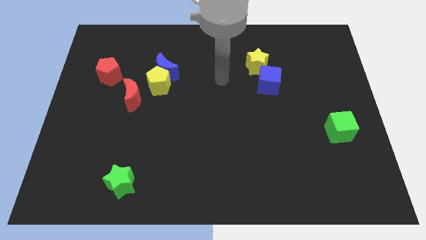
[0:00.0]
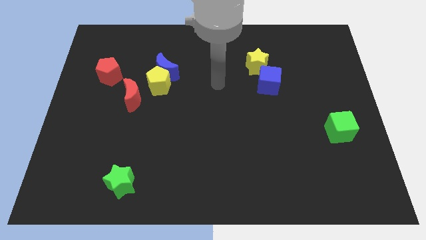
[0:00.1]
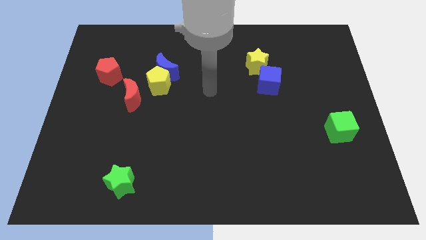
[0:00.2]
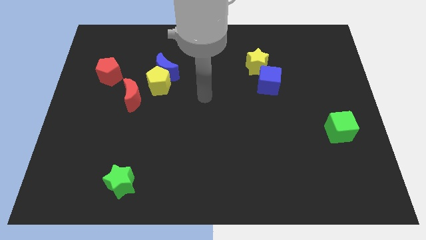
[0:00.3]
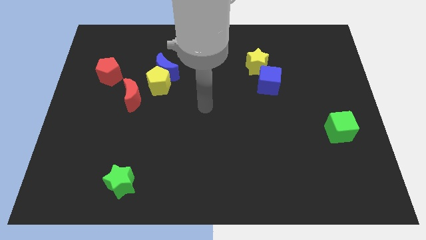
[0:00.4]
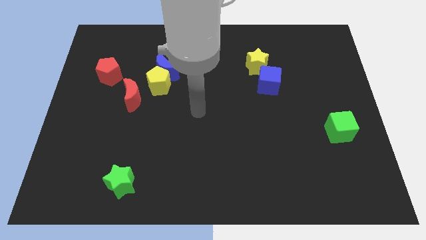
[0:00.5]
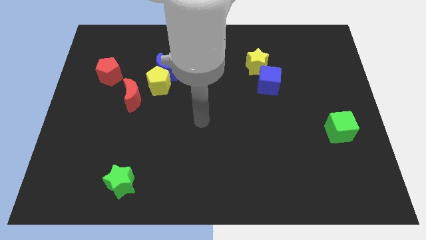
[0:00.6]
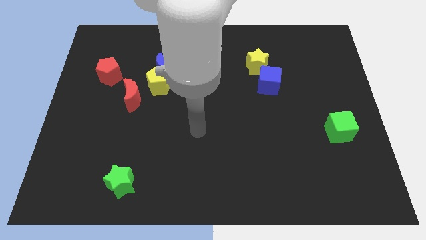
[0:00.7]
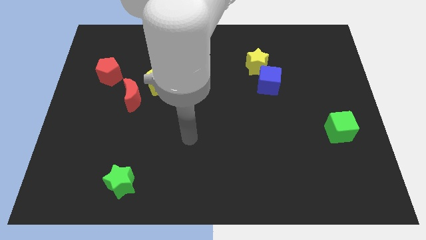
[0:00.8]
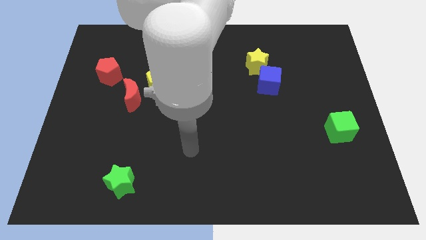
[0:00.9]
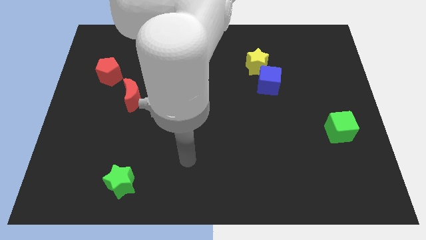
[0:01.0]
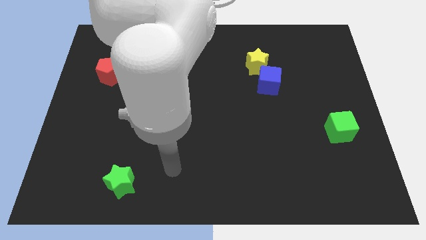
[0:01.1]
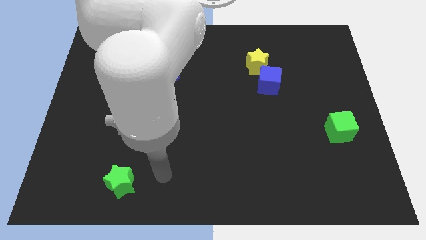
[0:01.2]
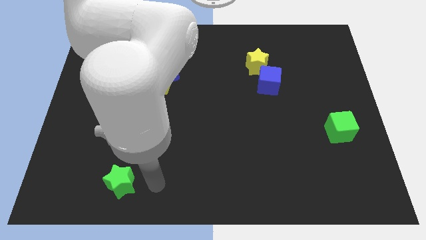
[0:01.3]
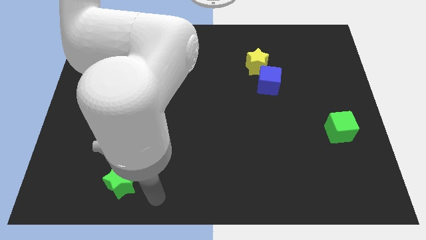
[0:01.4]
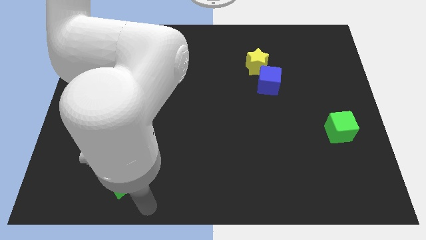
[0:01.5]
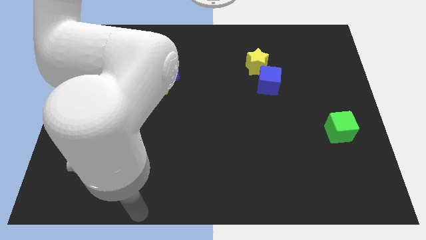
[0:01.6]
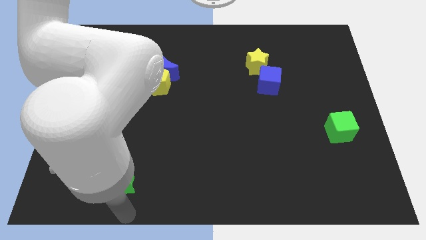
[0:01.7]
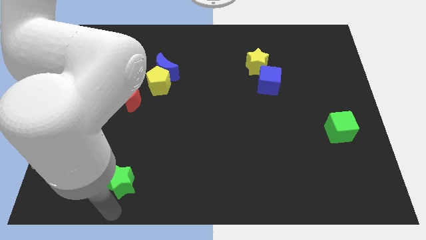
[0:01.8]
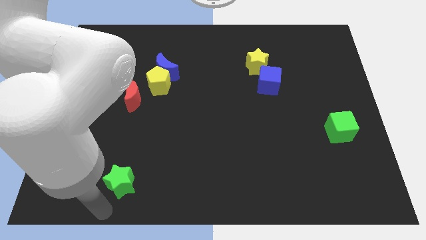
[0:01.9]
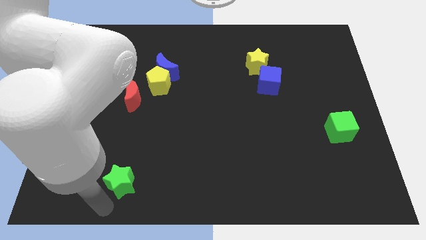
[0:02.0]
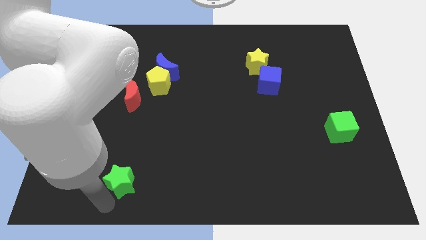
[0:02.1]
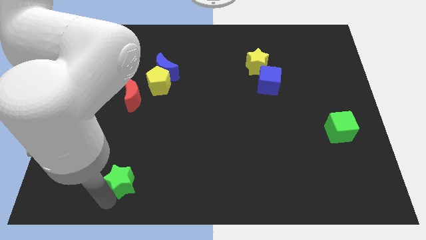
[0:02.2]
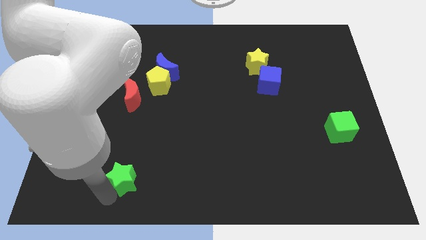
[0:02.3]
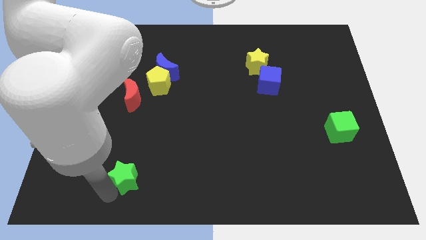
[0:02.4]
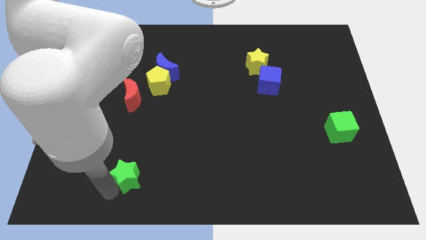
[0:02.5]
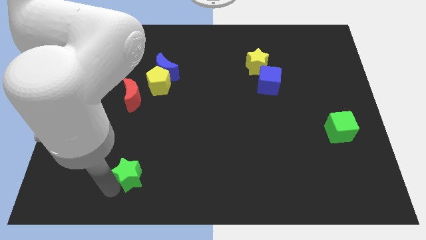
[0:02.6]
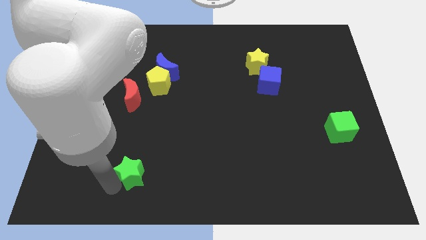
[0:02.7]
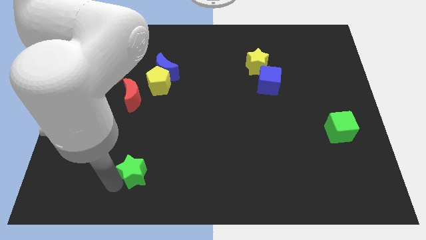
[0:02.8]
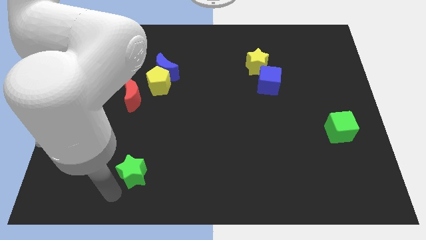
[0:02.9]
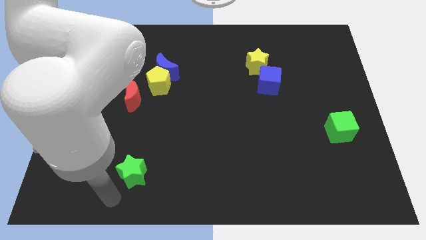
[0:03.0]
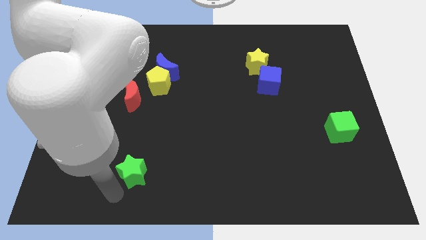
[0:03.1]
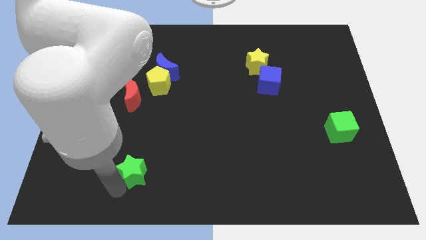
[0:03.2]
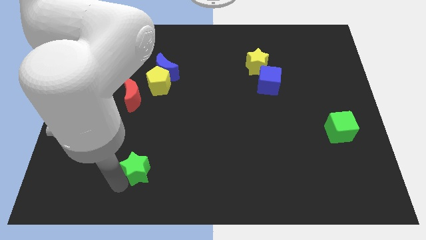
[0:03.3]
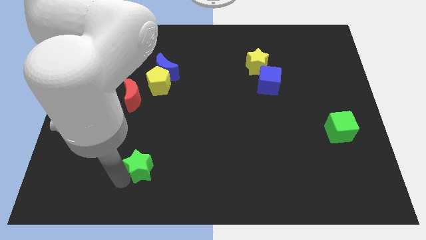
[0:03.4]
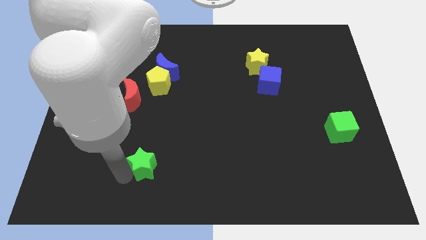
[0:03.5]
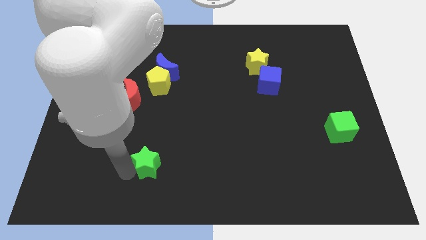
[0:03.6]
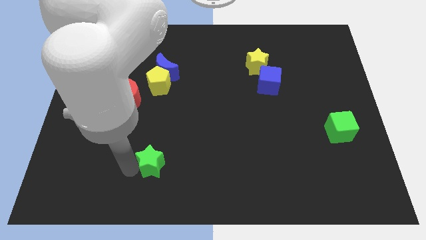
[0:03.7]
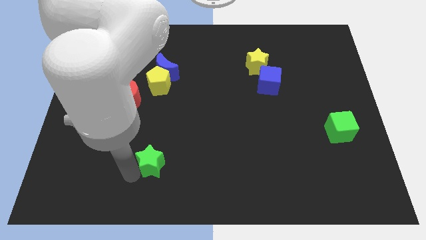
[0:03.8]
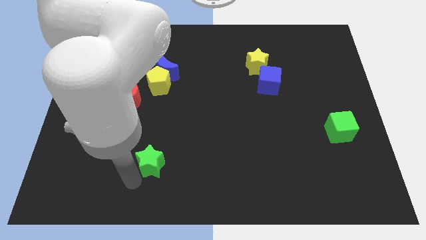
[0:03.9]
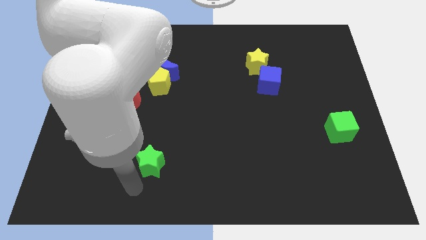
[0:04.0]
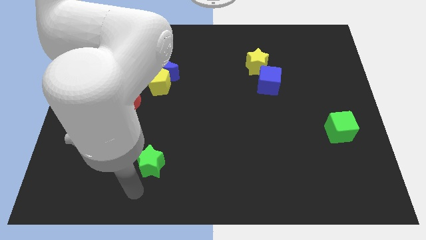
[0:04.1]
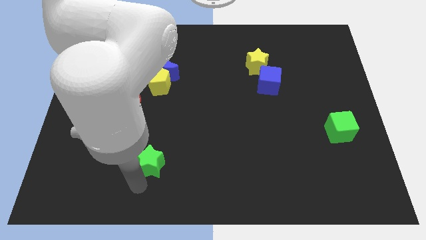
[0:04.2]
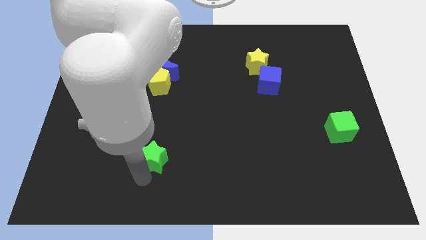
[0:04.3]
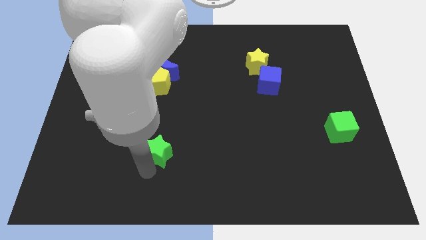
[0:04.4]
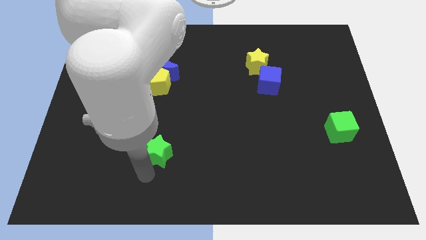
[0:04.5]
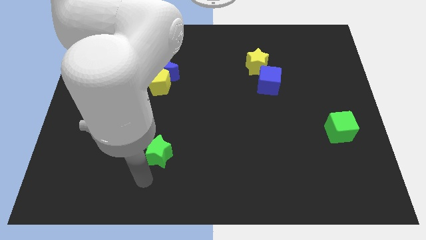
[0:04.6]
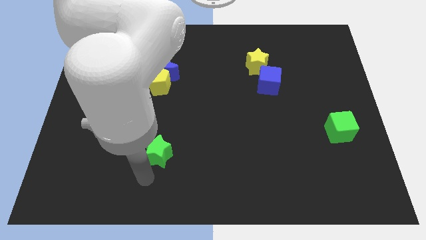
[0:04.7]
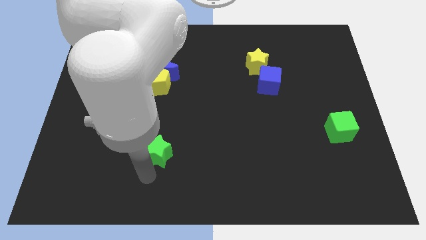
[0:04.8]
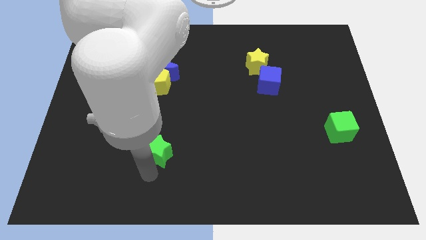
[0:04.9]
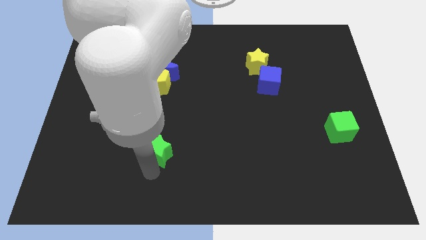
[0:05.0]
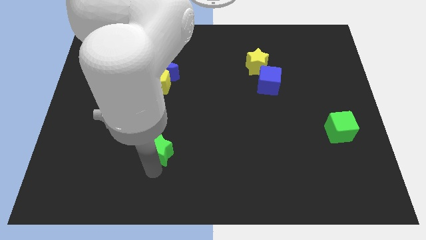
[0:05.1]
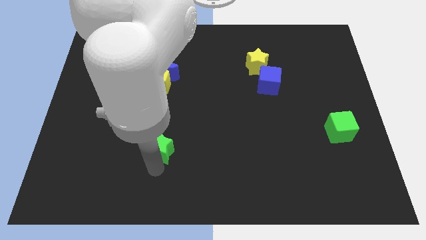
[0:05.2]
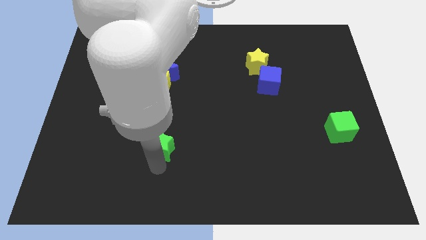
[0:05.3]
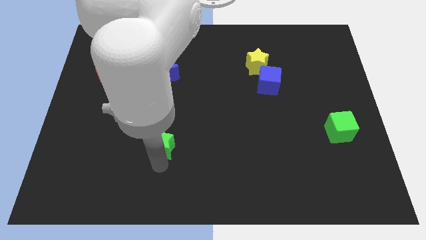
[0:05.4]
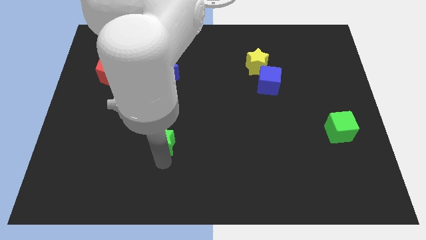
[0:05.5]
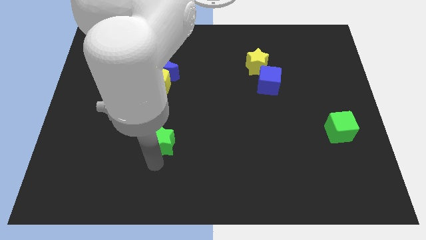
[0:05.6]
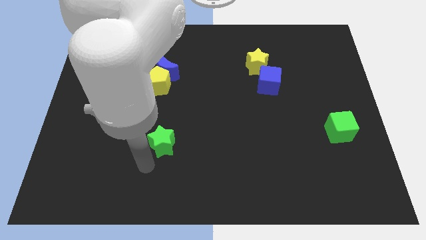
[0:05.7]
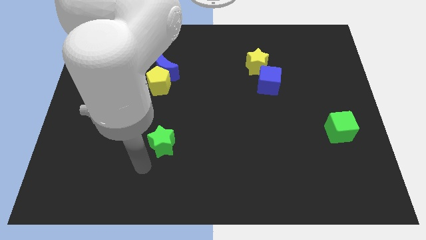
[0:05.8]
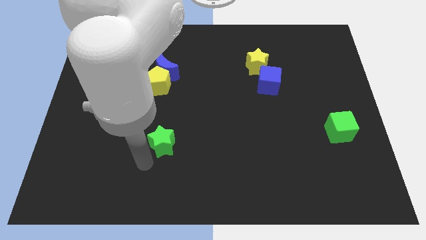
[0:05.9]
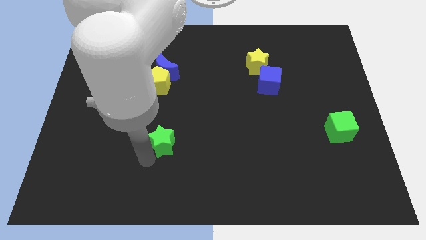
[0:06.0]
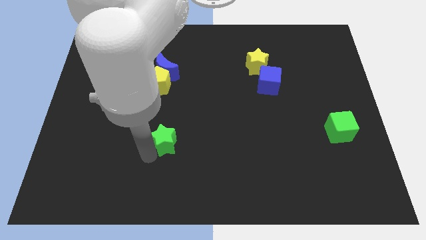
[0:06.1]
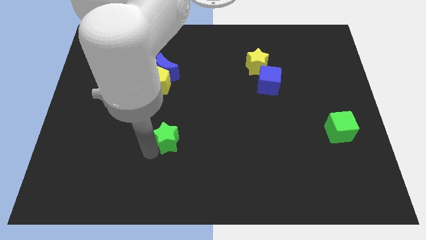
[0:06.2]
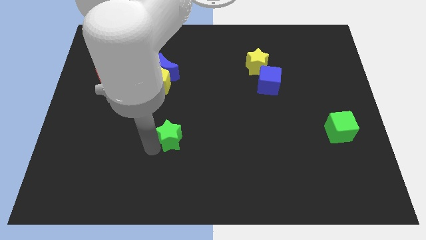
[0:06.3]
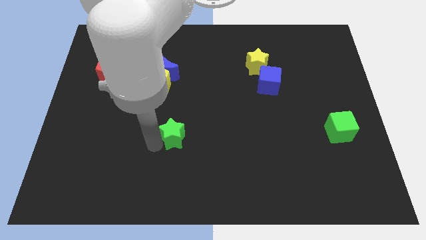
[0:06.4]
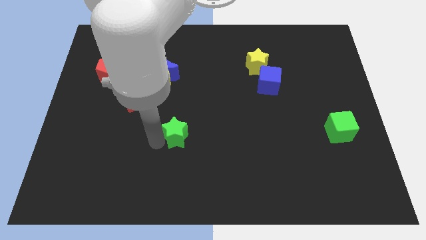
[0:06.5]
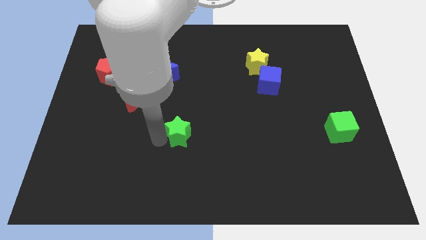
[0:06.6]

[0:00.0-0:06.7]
put the green star to the middle

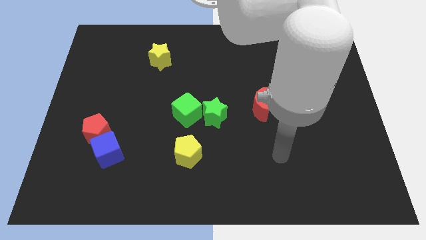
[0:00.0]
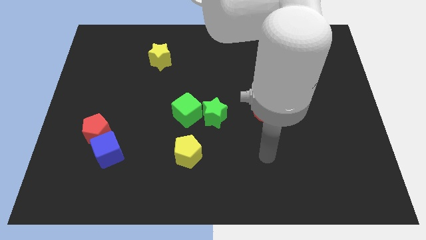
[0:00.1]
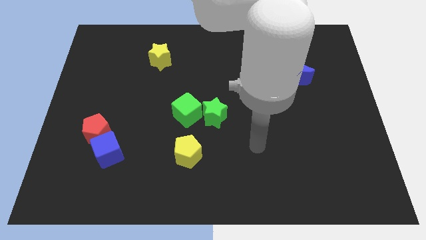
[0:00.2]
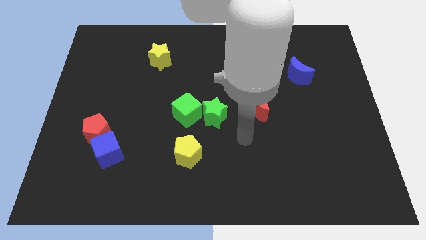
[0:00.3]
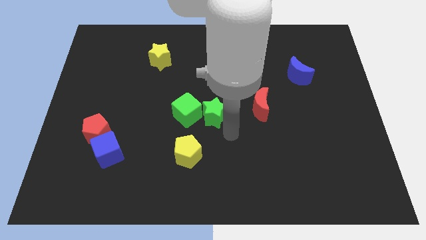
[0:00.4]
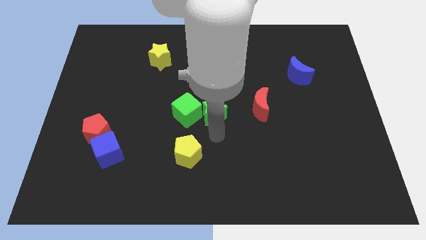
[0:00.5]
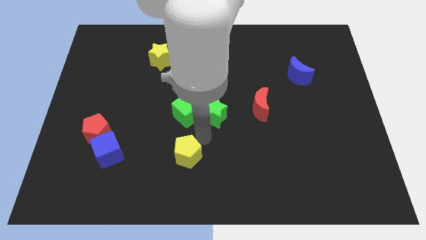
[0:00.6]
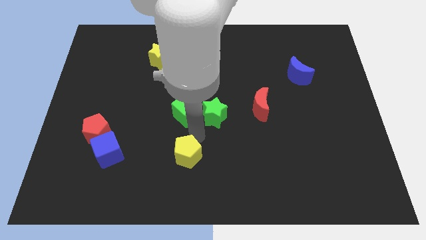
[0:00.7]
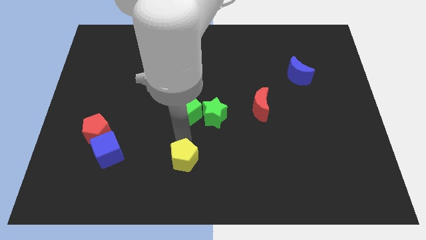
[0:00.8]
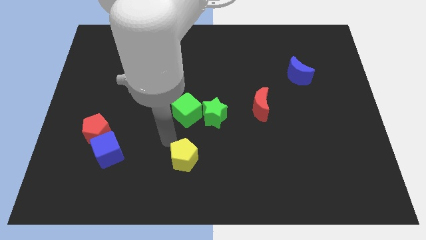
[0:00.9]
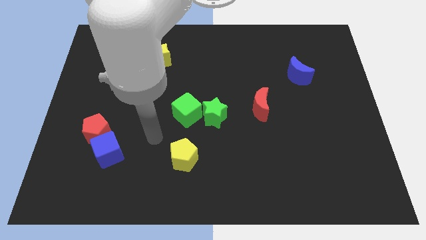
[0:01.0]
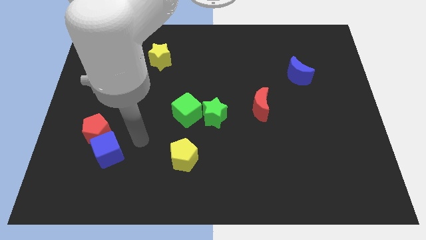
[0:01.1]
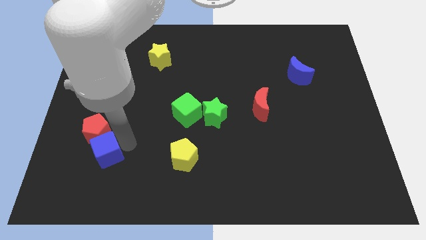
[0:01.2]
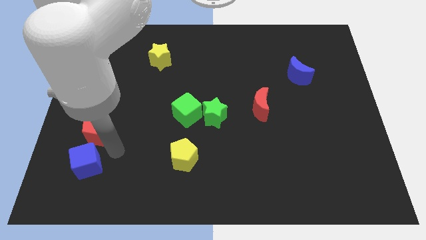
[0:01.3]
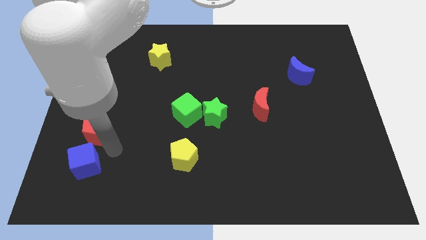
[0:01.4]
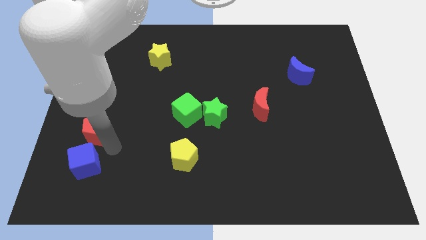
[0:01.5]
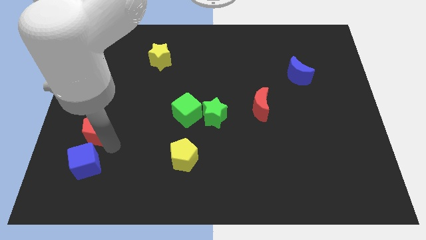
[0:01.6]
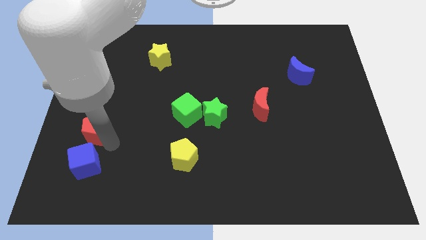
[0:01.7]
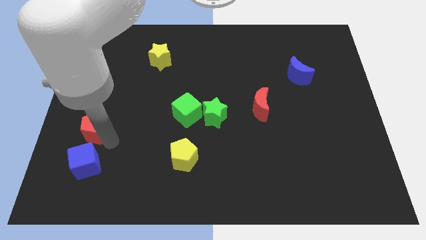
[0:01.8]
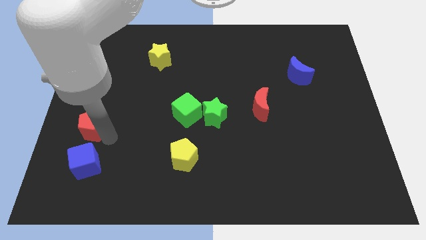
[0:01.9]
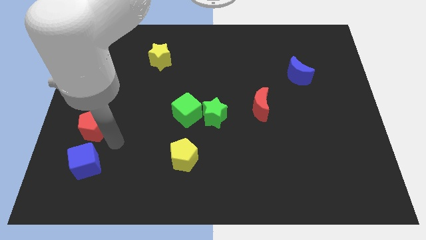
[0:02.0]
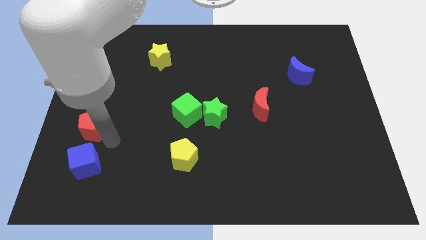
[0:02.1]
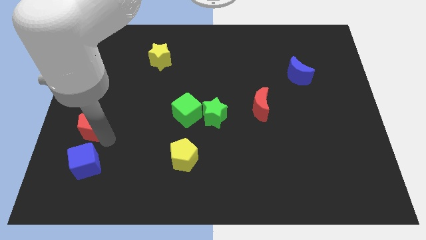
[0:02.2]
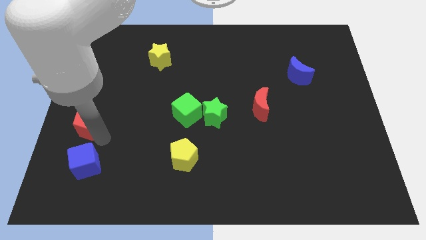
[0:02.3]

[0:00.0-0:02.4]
put the red pentagon to the center left
